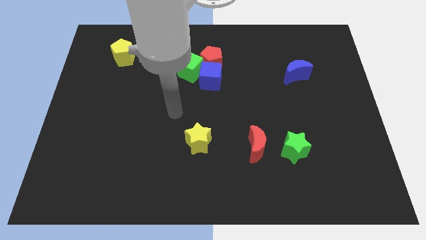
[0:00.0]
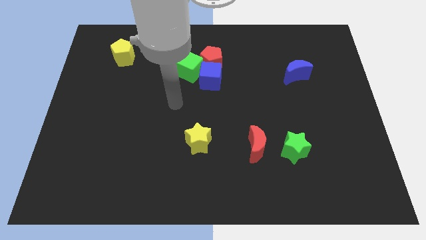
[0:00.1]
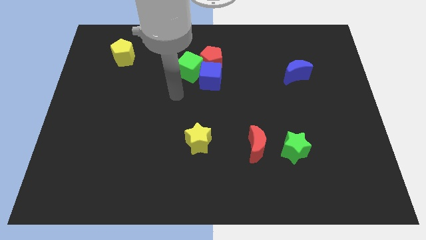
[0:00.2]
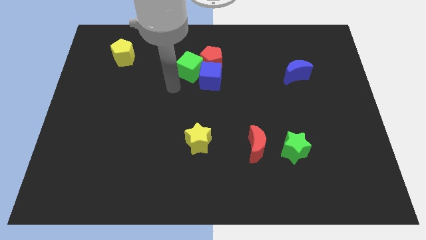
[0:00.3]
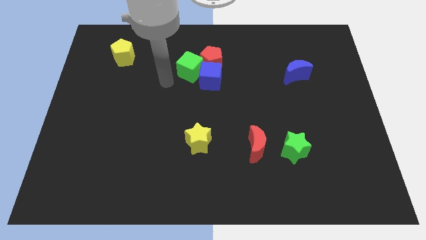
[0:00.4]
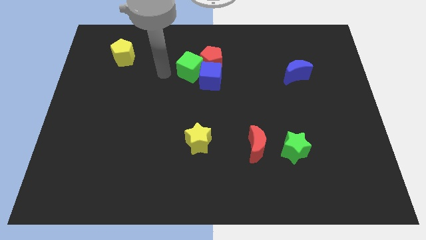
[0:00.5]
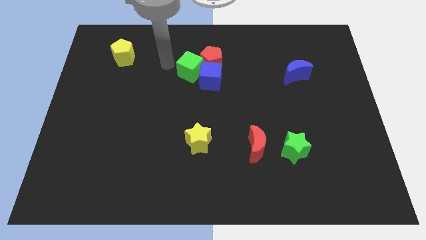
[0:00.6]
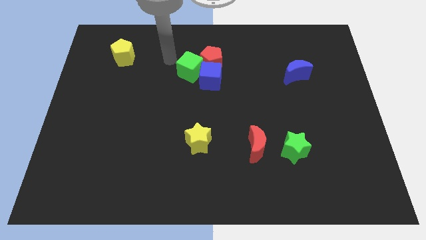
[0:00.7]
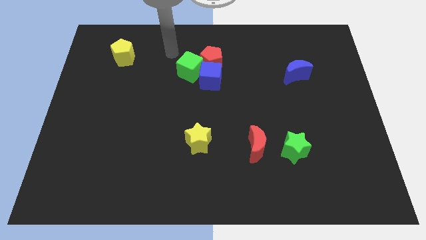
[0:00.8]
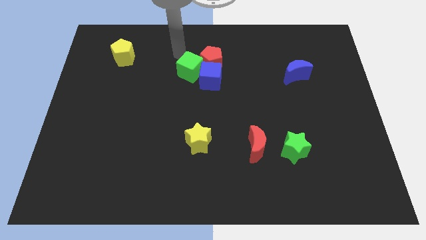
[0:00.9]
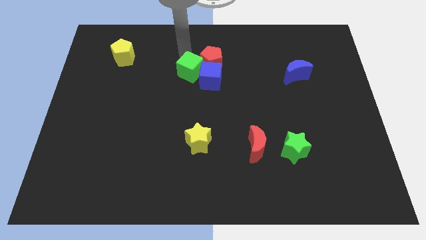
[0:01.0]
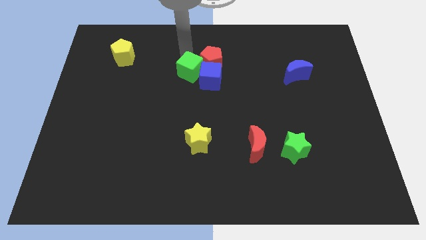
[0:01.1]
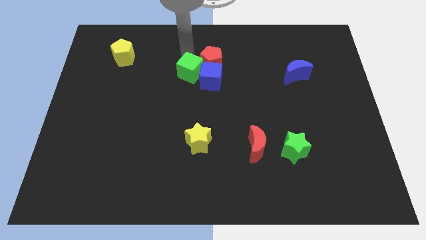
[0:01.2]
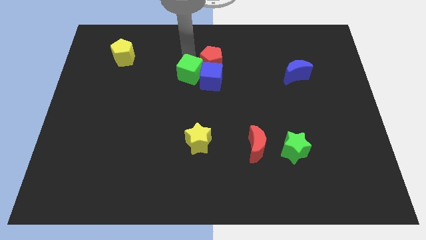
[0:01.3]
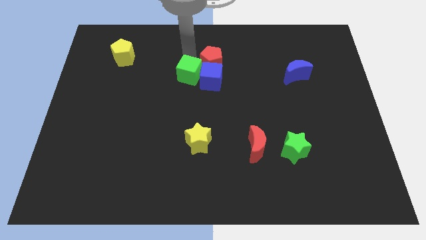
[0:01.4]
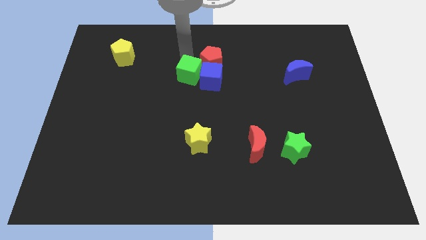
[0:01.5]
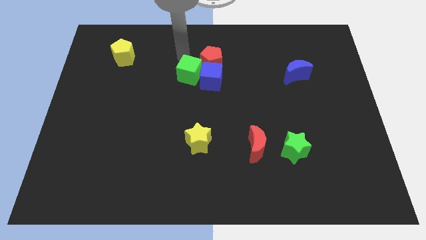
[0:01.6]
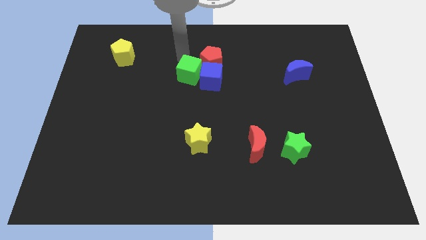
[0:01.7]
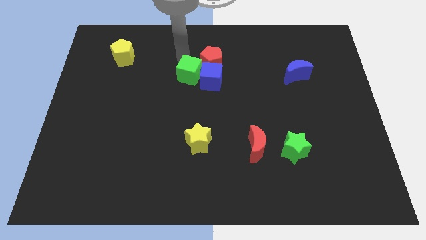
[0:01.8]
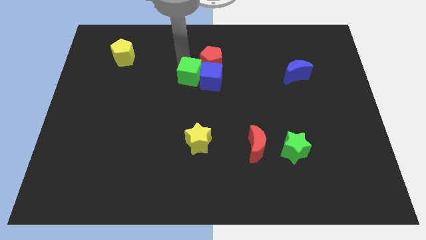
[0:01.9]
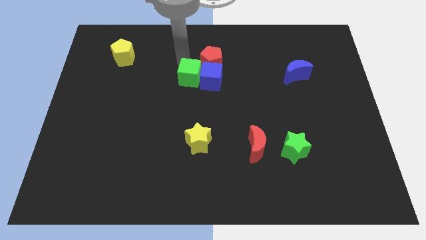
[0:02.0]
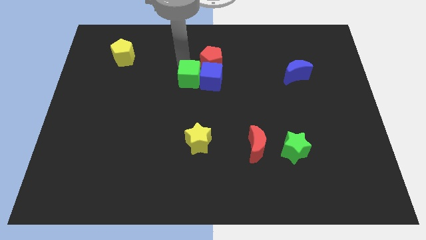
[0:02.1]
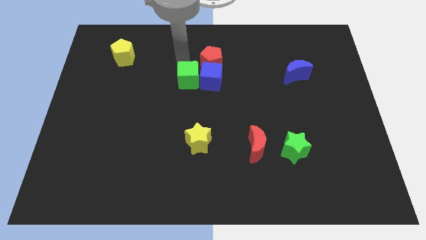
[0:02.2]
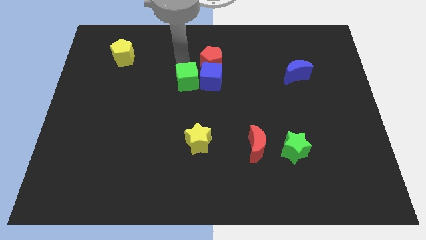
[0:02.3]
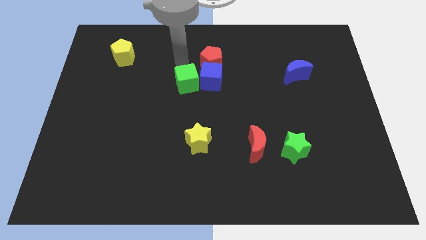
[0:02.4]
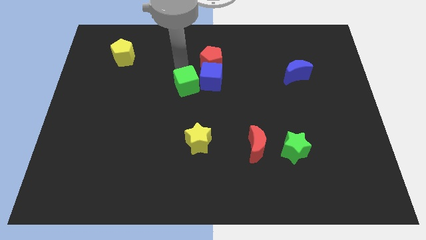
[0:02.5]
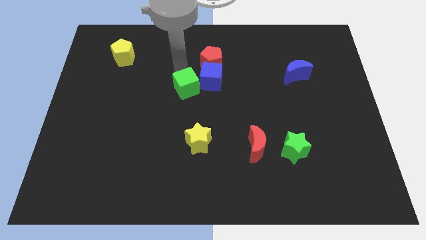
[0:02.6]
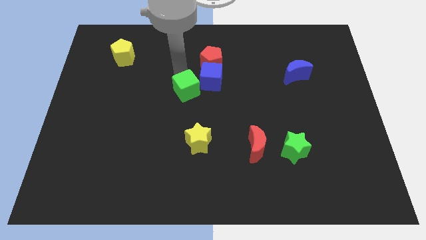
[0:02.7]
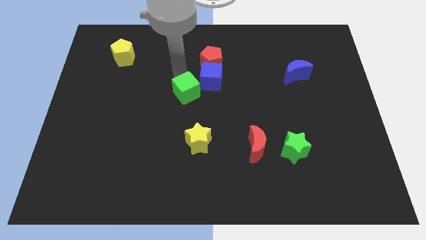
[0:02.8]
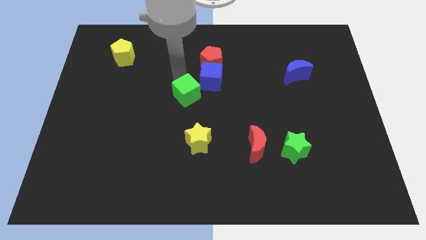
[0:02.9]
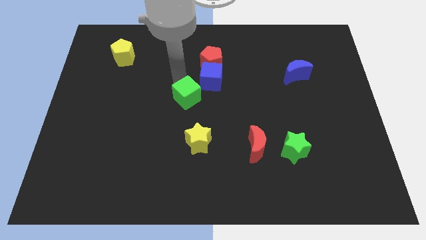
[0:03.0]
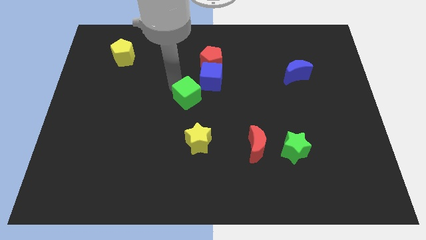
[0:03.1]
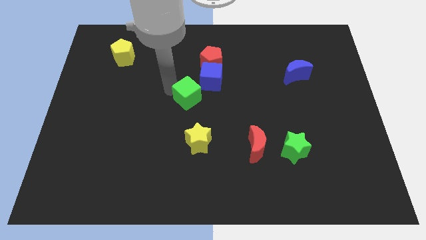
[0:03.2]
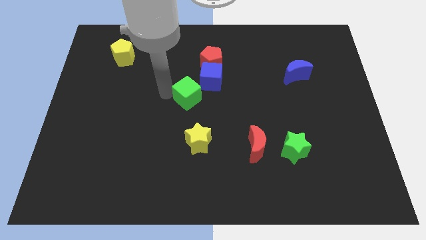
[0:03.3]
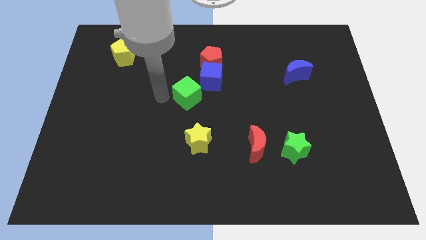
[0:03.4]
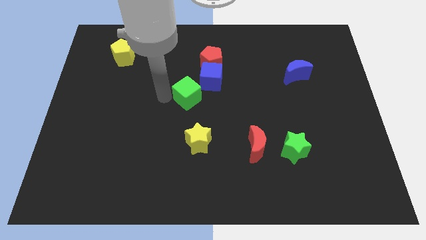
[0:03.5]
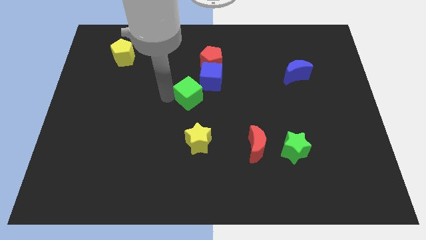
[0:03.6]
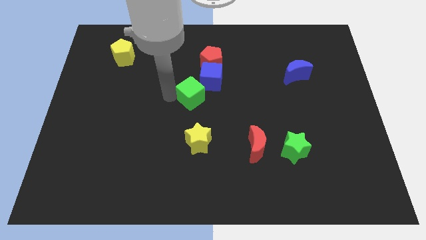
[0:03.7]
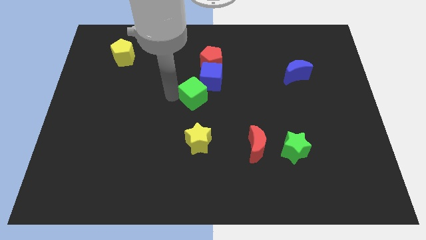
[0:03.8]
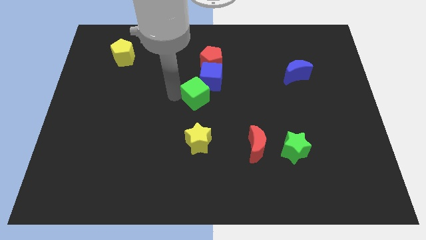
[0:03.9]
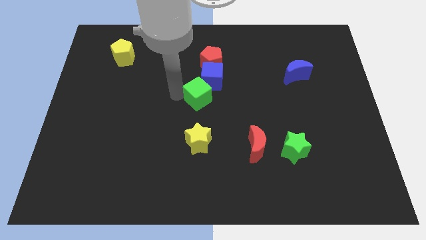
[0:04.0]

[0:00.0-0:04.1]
push the green cube downwards and right a little bit

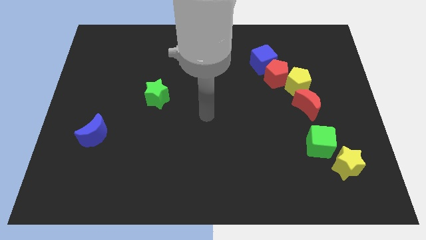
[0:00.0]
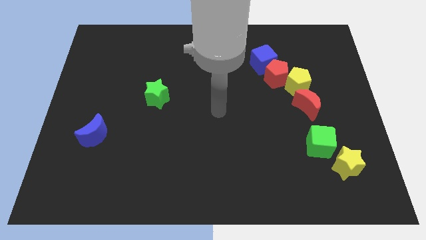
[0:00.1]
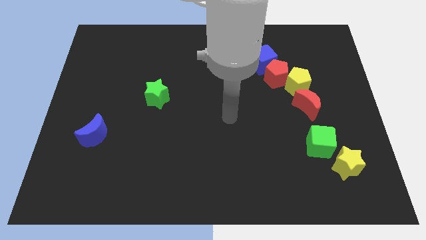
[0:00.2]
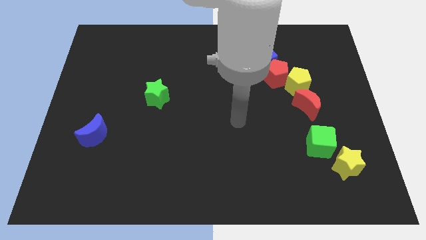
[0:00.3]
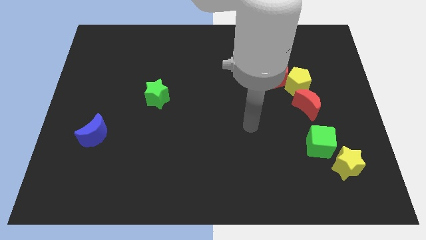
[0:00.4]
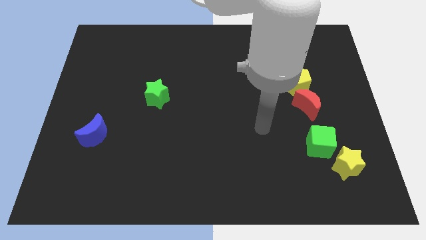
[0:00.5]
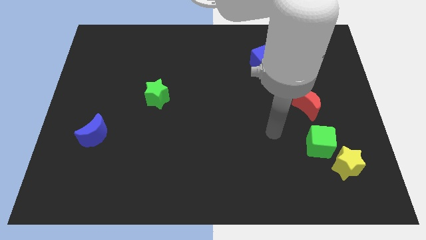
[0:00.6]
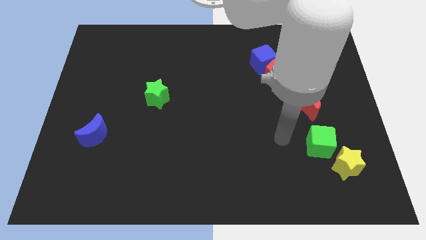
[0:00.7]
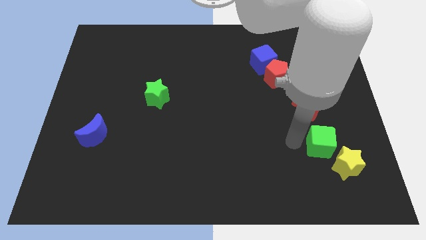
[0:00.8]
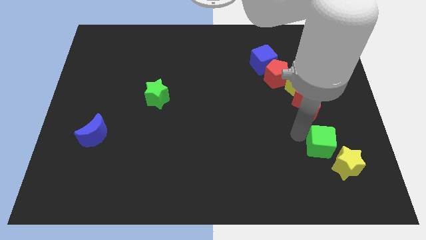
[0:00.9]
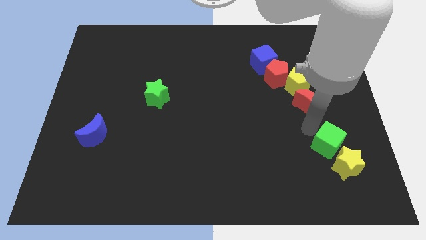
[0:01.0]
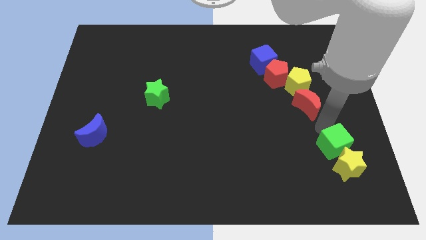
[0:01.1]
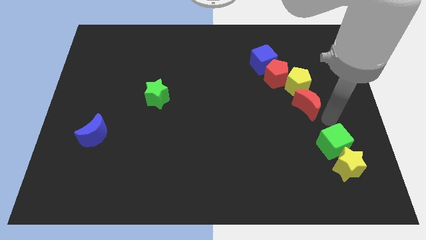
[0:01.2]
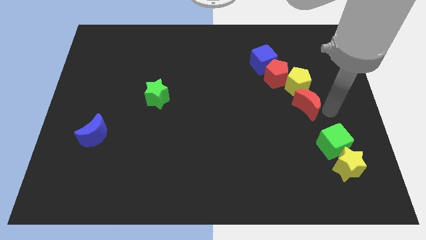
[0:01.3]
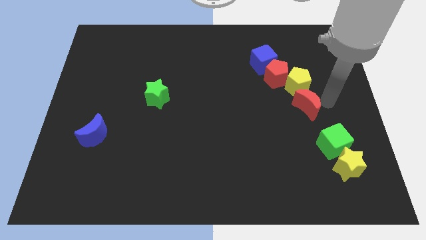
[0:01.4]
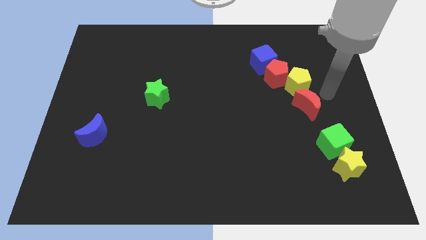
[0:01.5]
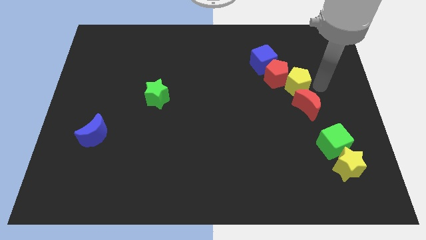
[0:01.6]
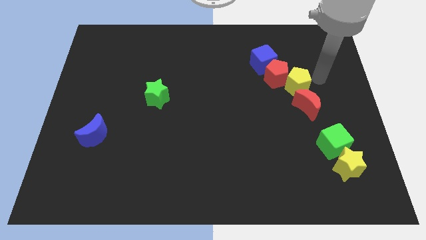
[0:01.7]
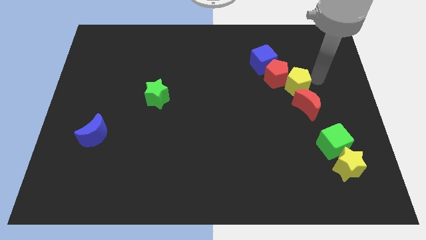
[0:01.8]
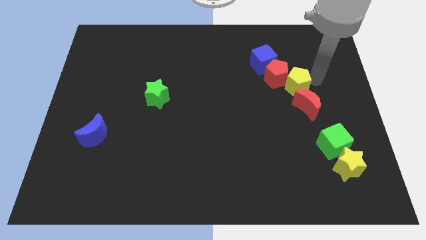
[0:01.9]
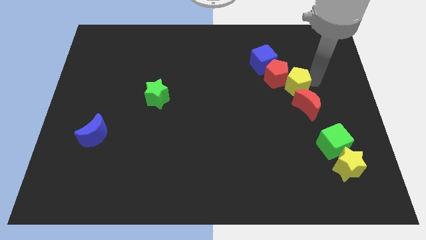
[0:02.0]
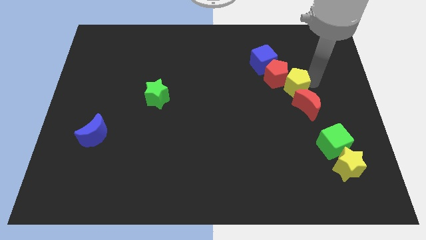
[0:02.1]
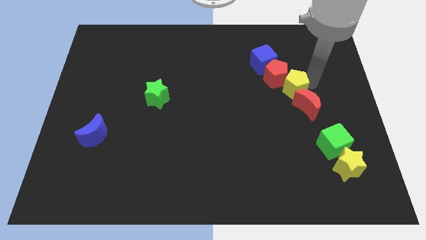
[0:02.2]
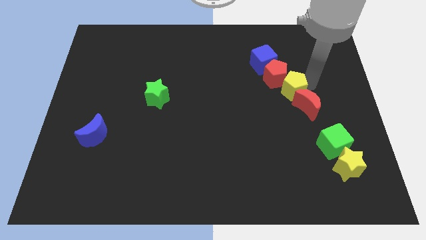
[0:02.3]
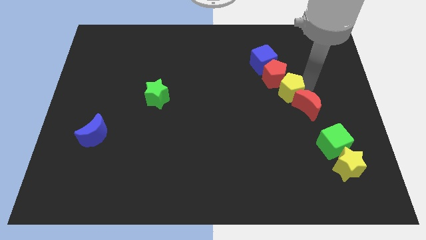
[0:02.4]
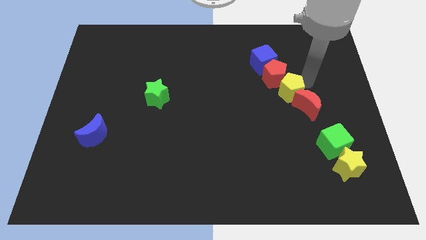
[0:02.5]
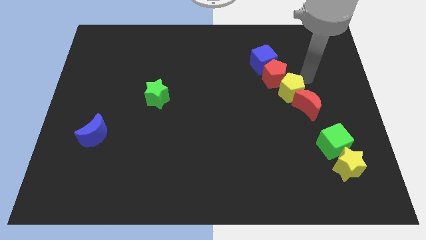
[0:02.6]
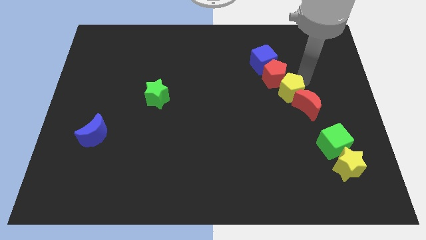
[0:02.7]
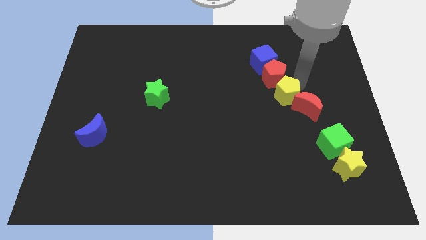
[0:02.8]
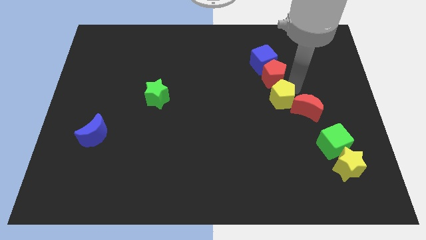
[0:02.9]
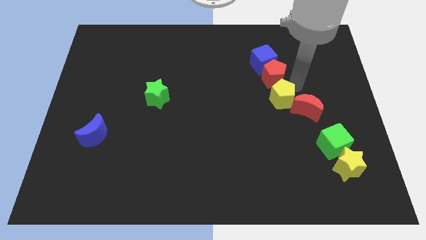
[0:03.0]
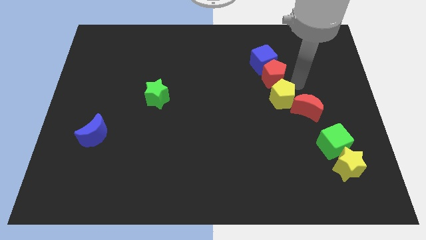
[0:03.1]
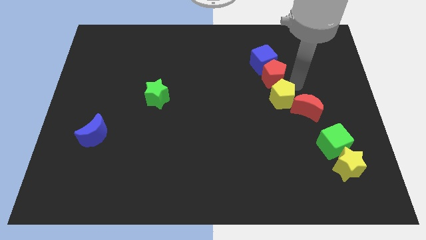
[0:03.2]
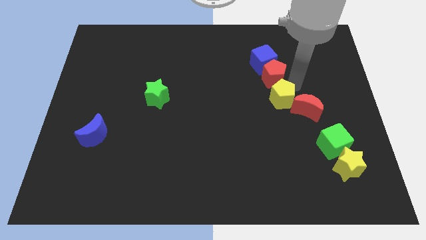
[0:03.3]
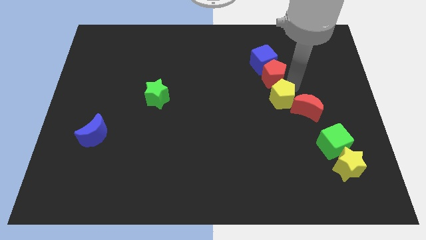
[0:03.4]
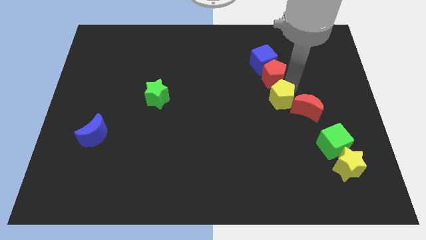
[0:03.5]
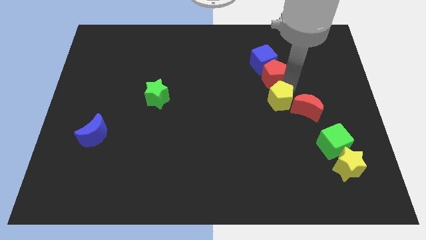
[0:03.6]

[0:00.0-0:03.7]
slightly push the yellow pentagon diagonally downwards and to the left

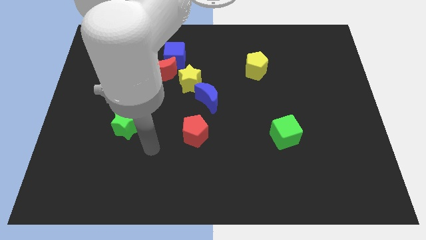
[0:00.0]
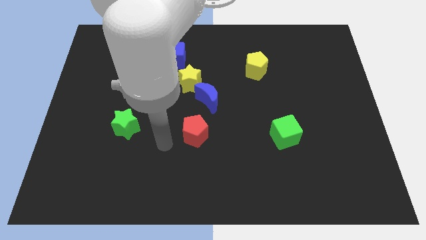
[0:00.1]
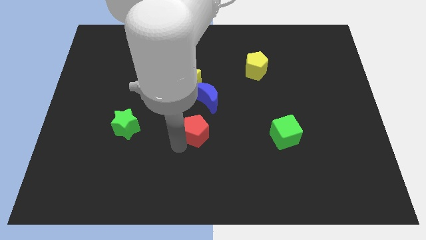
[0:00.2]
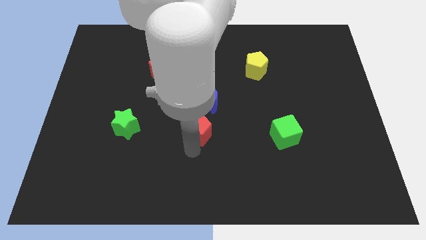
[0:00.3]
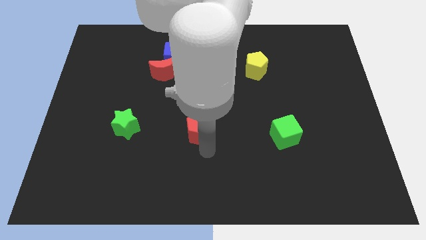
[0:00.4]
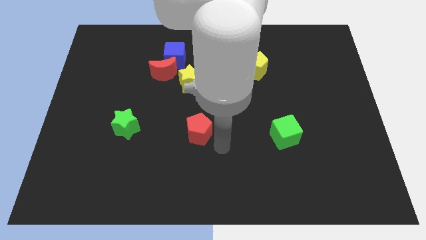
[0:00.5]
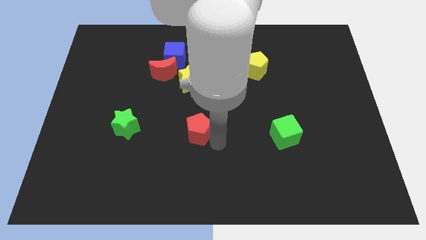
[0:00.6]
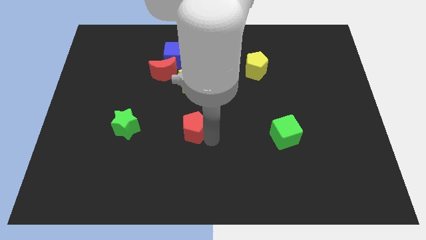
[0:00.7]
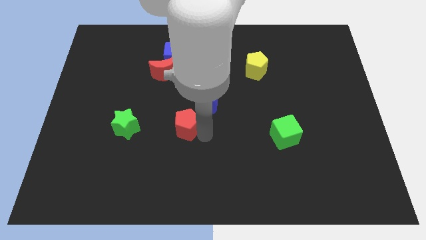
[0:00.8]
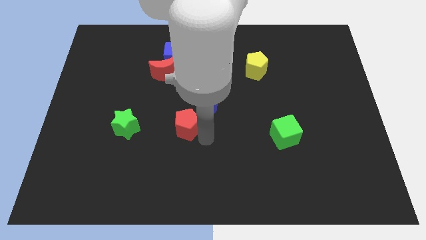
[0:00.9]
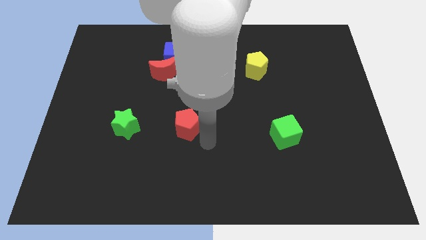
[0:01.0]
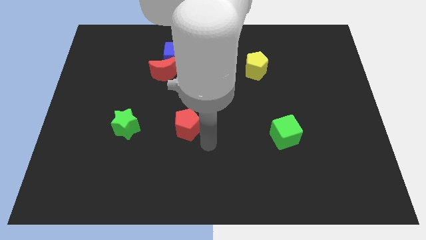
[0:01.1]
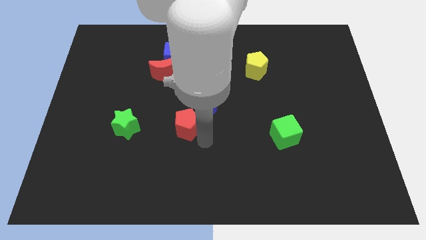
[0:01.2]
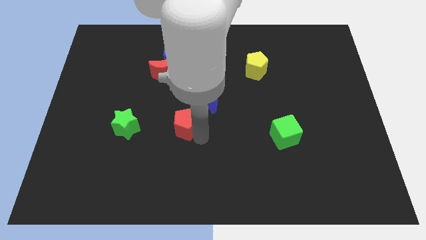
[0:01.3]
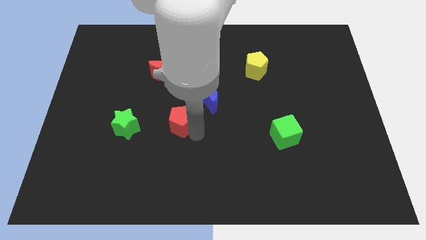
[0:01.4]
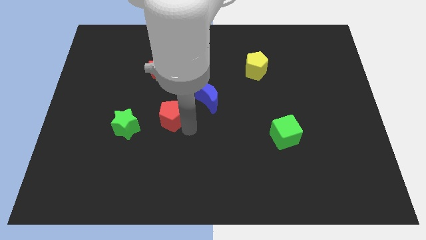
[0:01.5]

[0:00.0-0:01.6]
slide the red pentagon diagonally up and to the left a bit
